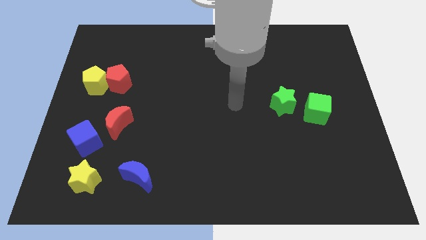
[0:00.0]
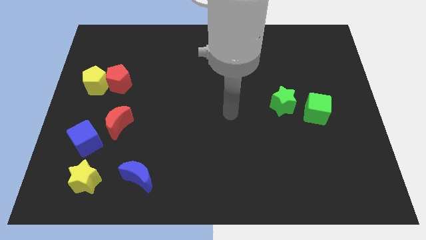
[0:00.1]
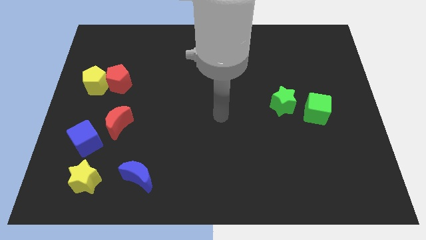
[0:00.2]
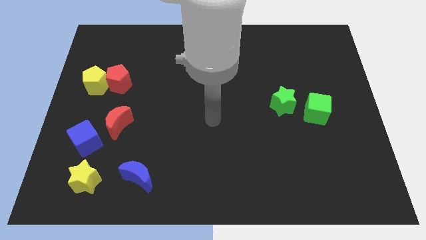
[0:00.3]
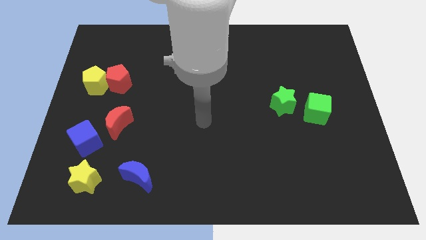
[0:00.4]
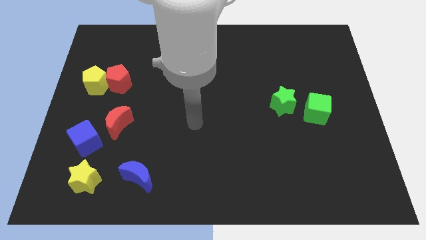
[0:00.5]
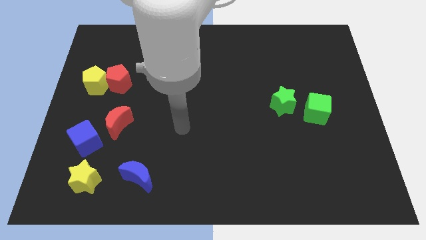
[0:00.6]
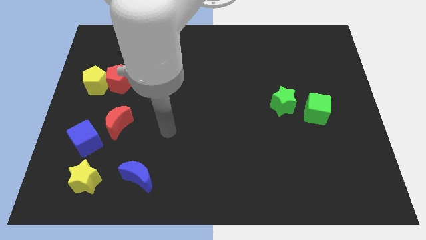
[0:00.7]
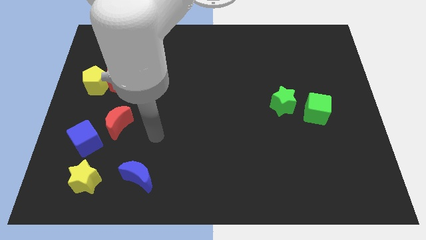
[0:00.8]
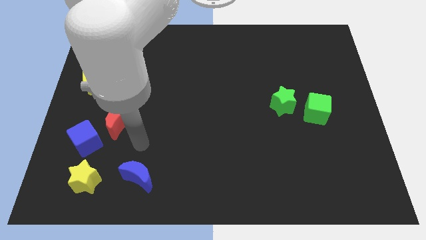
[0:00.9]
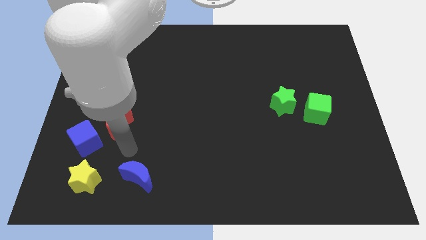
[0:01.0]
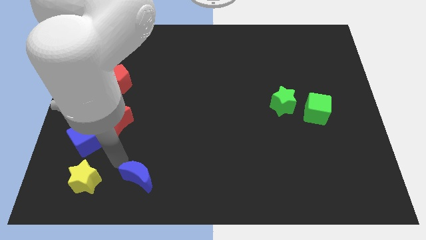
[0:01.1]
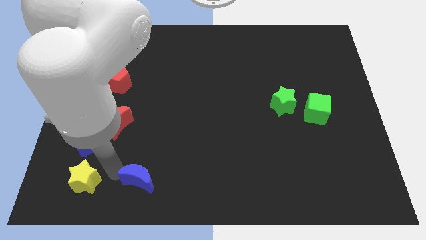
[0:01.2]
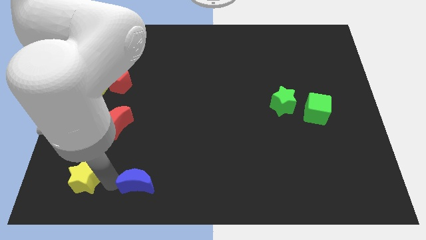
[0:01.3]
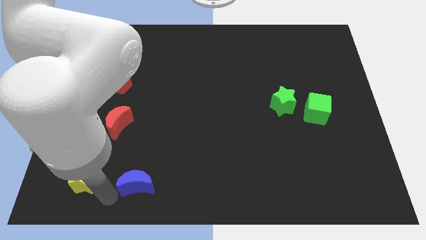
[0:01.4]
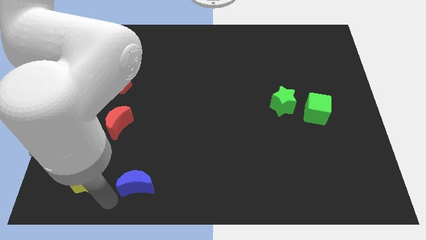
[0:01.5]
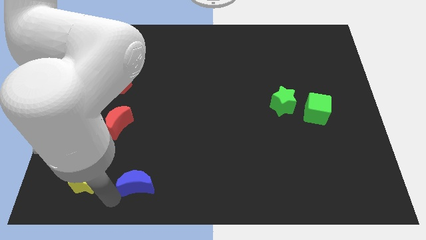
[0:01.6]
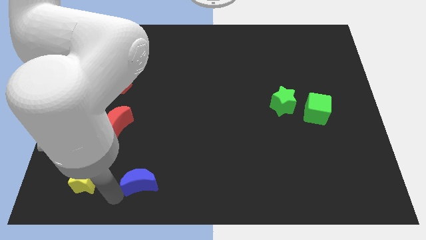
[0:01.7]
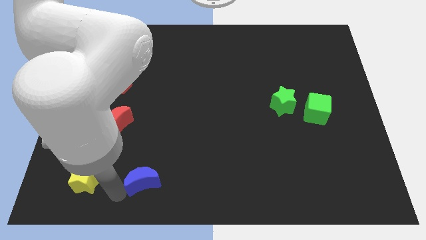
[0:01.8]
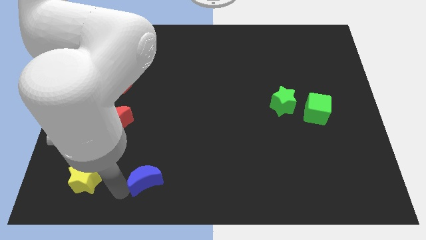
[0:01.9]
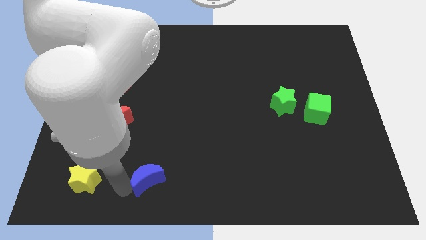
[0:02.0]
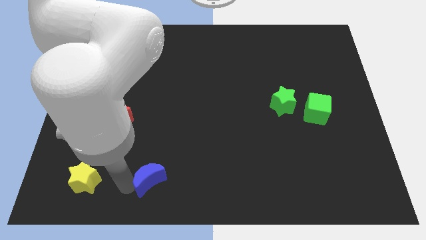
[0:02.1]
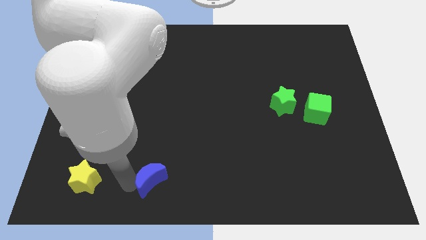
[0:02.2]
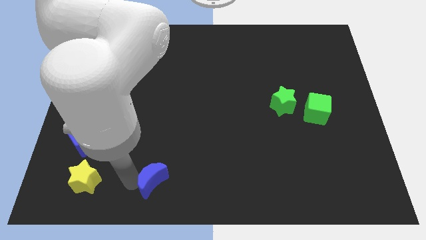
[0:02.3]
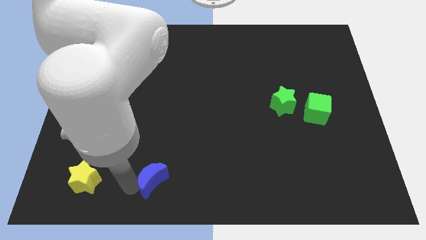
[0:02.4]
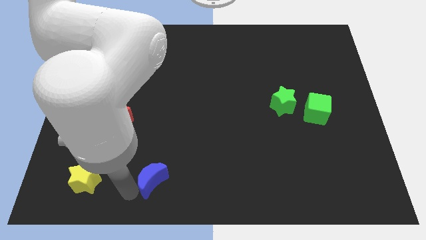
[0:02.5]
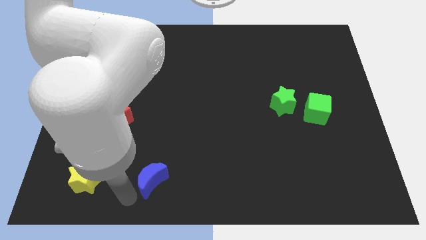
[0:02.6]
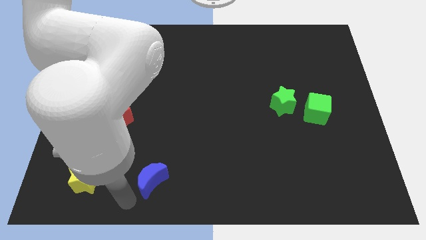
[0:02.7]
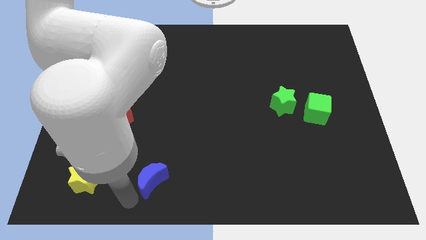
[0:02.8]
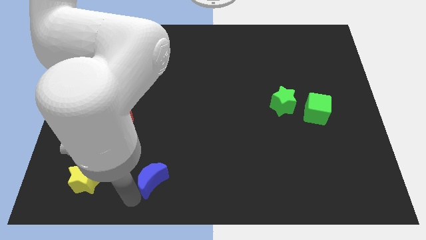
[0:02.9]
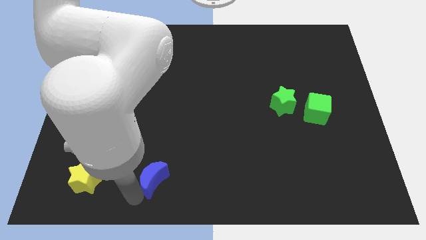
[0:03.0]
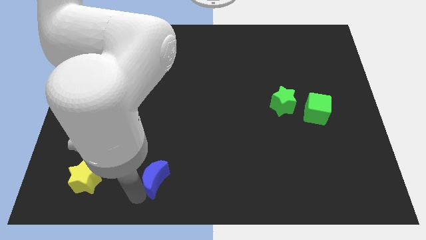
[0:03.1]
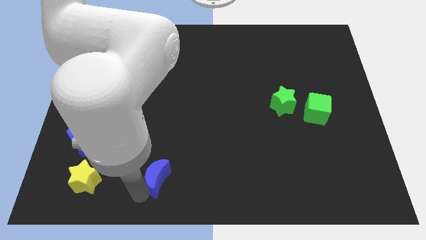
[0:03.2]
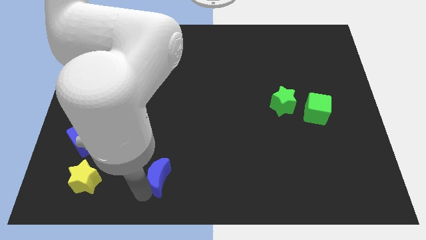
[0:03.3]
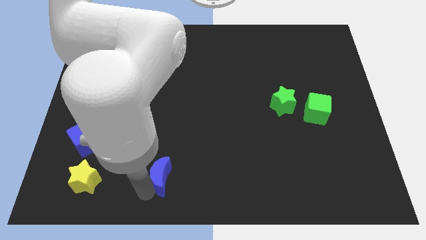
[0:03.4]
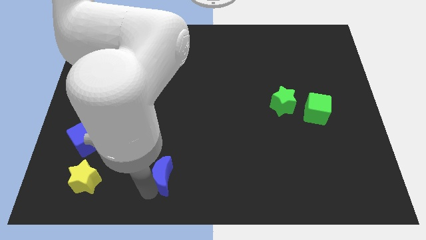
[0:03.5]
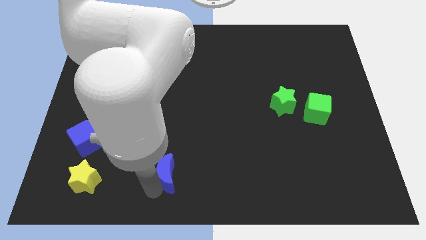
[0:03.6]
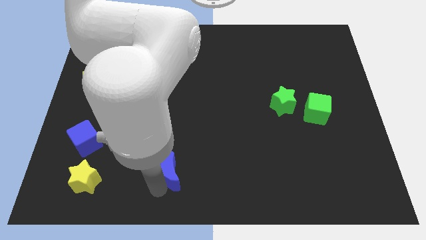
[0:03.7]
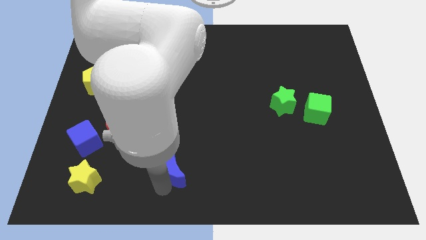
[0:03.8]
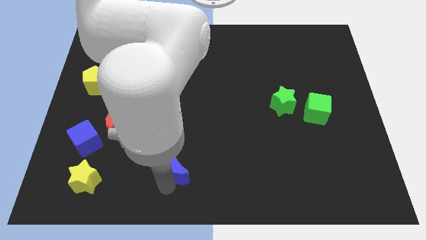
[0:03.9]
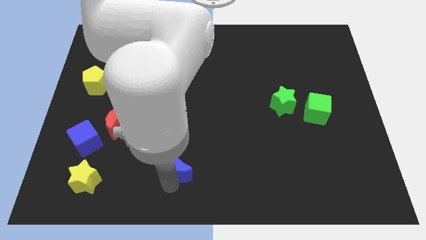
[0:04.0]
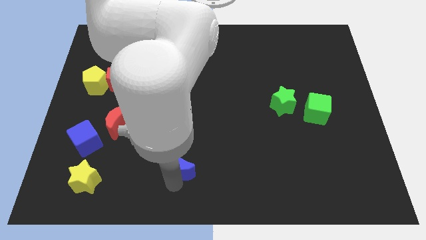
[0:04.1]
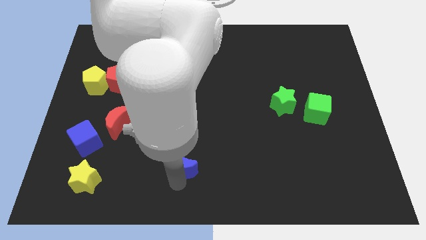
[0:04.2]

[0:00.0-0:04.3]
slightly slide the blue moon diagonally up and to the right

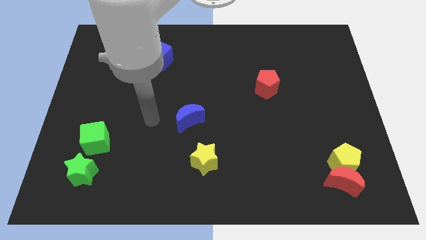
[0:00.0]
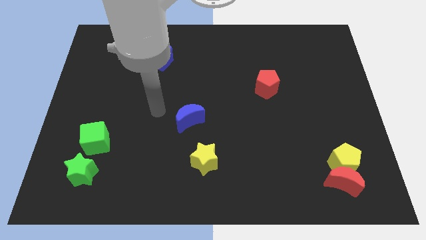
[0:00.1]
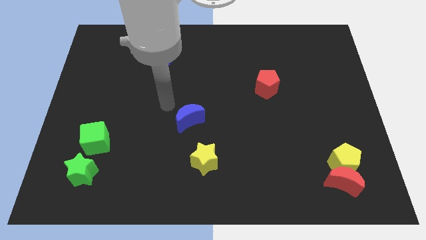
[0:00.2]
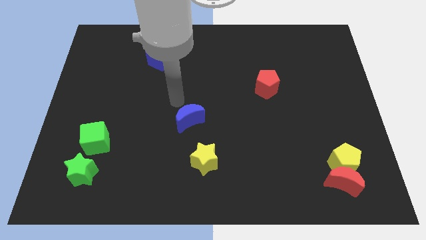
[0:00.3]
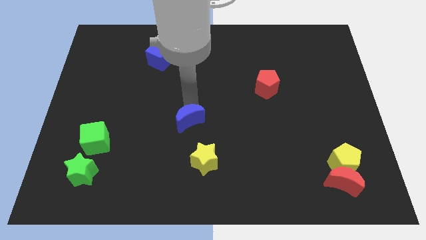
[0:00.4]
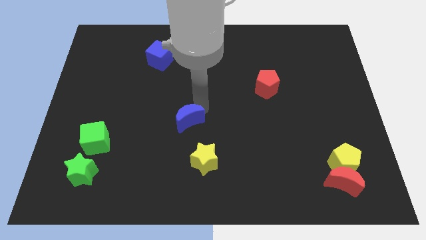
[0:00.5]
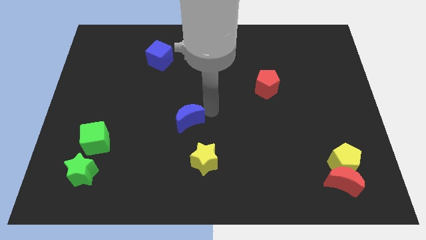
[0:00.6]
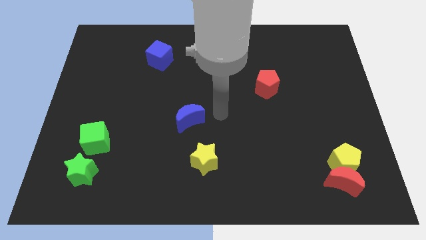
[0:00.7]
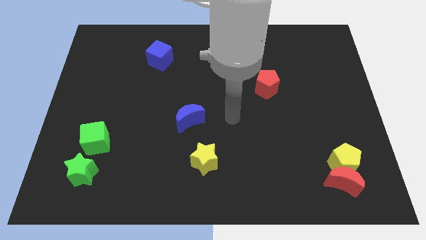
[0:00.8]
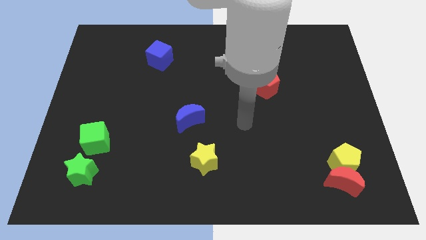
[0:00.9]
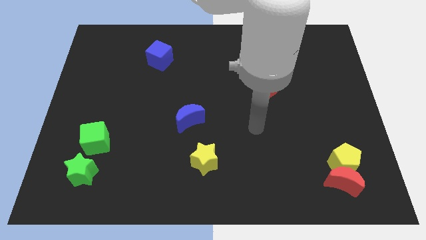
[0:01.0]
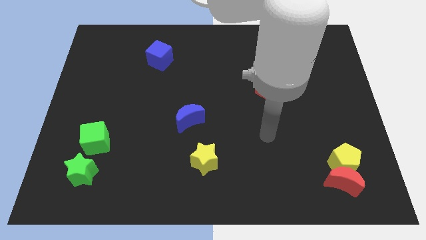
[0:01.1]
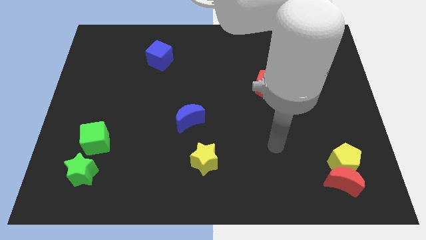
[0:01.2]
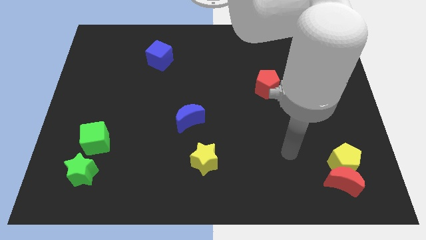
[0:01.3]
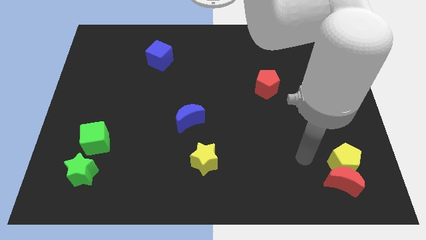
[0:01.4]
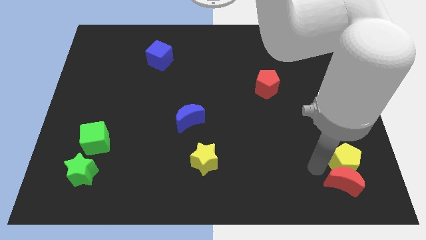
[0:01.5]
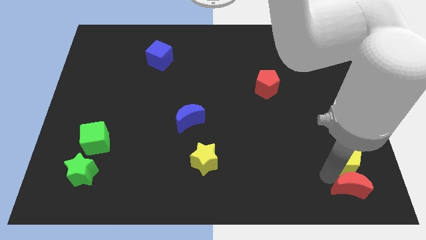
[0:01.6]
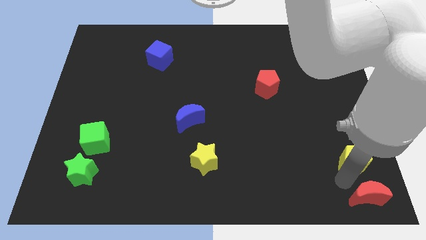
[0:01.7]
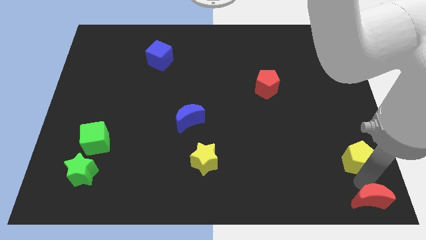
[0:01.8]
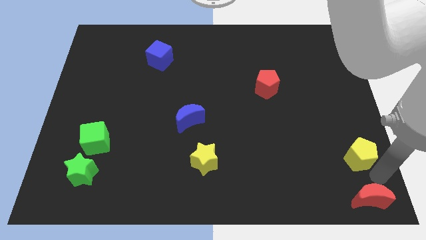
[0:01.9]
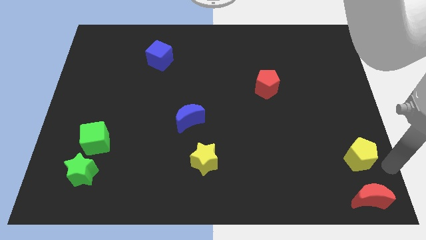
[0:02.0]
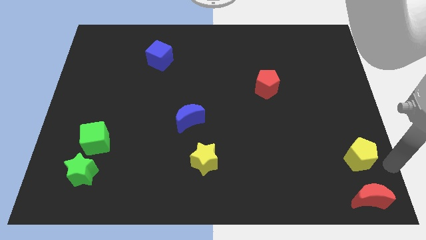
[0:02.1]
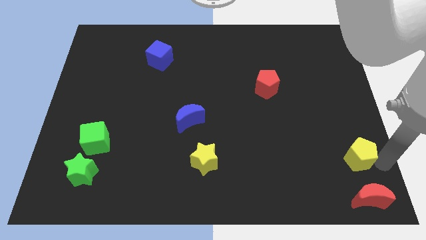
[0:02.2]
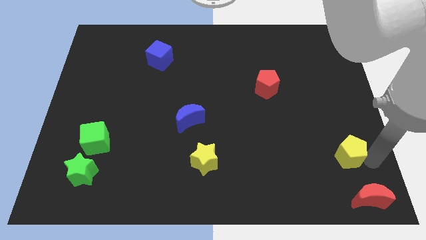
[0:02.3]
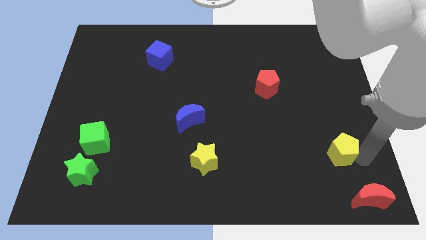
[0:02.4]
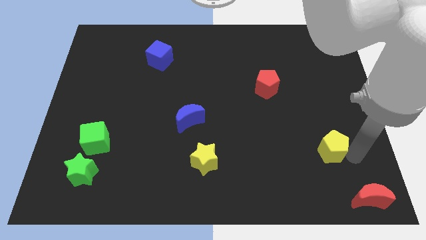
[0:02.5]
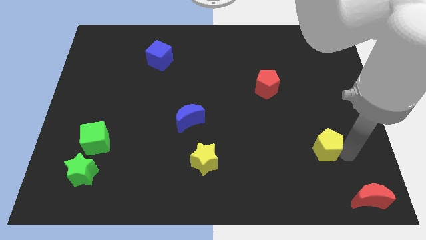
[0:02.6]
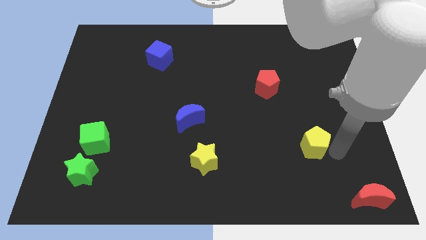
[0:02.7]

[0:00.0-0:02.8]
slightly move the yellow pentagon upwards and then left

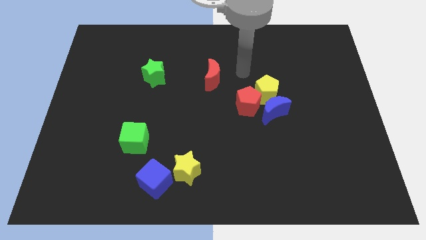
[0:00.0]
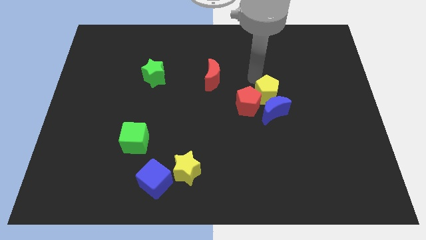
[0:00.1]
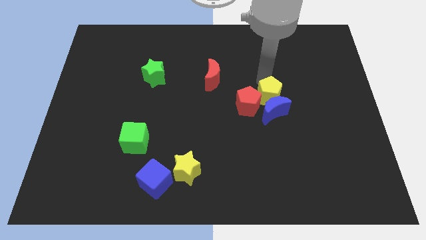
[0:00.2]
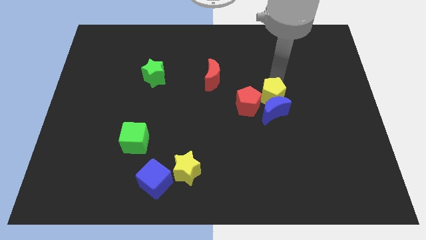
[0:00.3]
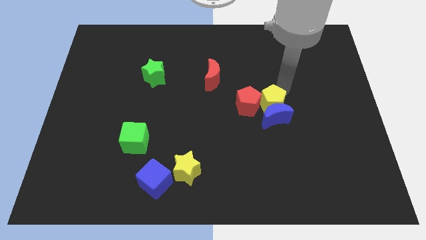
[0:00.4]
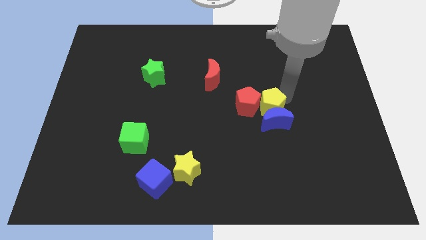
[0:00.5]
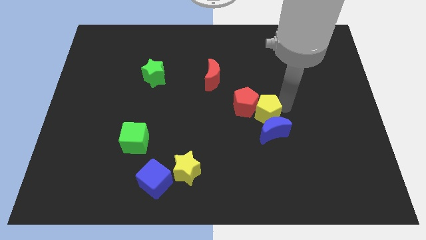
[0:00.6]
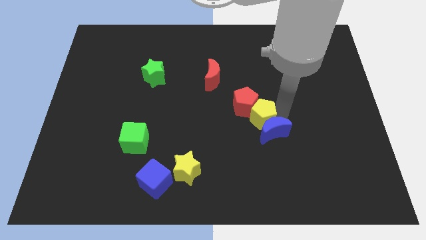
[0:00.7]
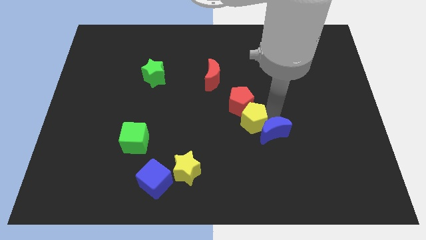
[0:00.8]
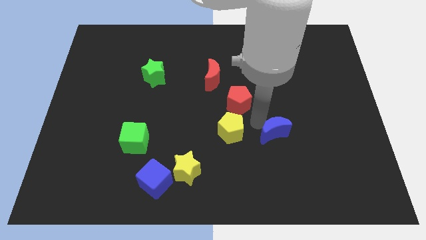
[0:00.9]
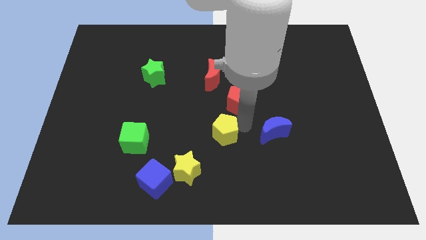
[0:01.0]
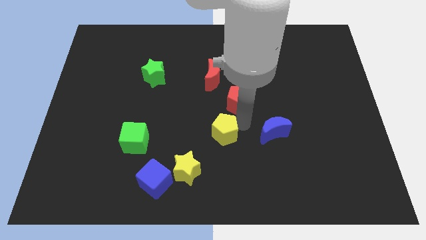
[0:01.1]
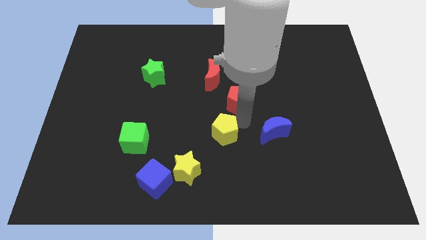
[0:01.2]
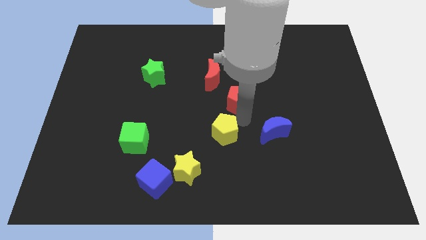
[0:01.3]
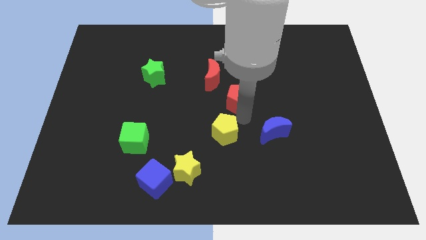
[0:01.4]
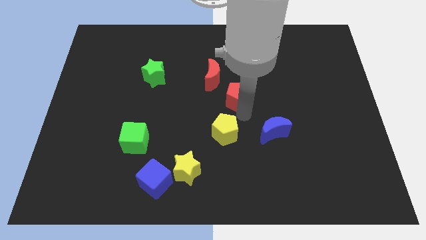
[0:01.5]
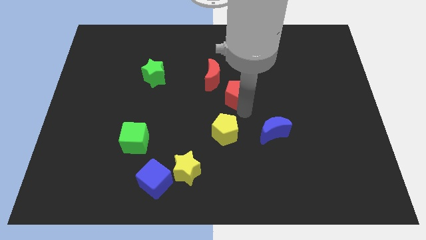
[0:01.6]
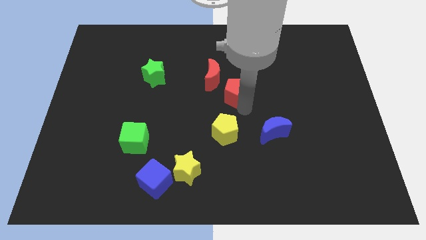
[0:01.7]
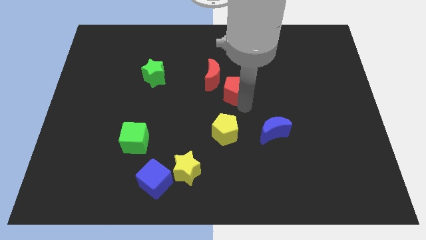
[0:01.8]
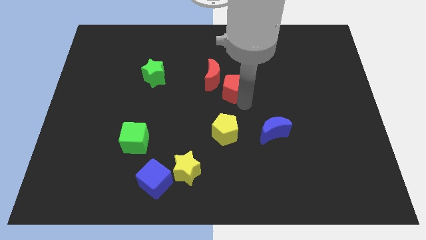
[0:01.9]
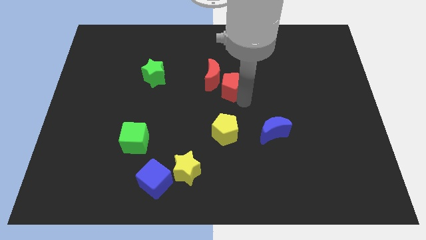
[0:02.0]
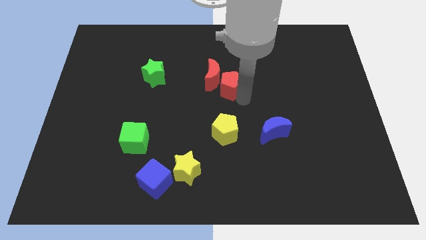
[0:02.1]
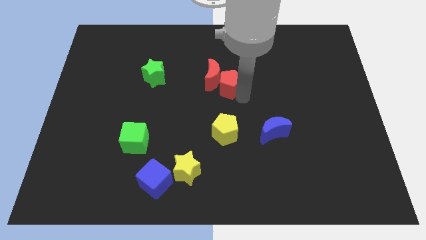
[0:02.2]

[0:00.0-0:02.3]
move the red pentagon diagonally up and left a little
